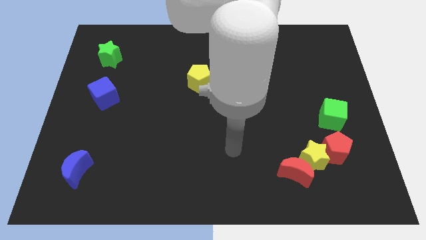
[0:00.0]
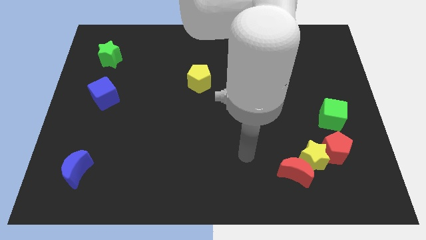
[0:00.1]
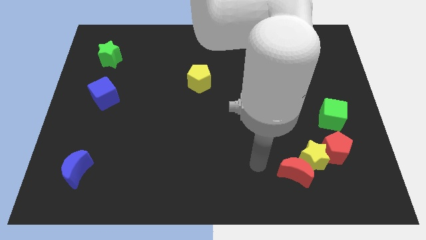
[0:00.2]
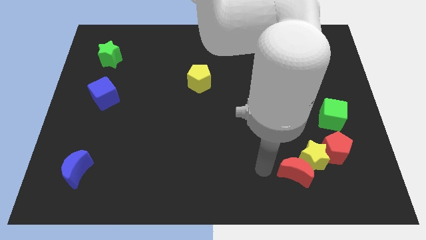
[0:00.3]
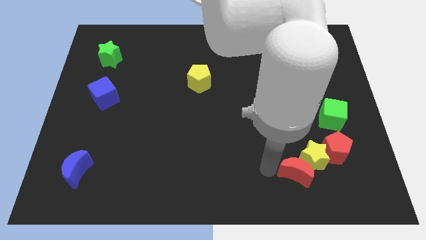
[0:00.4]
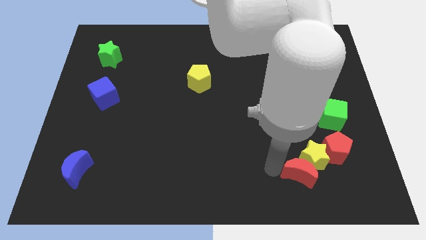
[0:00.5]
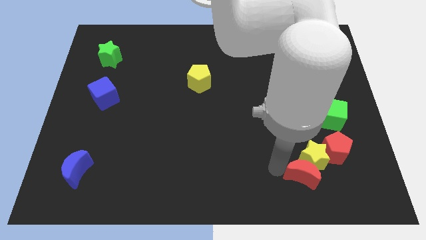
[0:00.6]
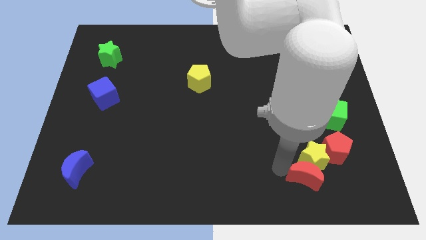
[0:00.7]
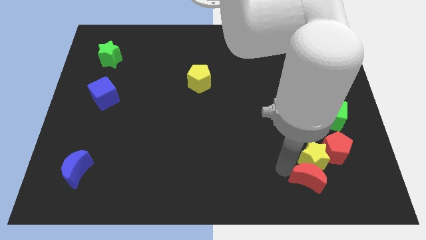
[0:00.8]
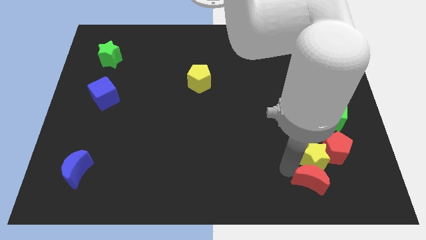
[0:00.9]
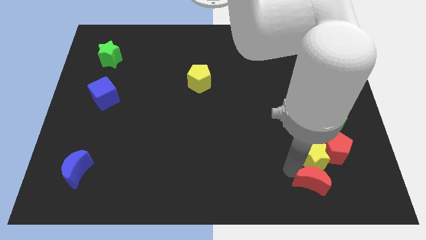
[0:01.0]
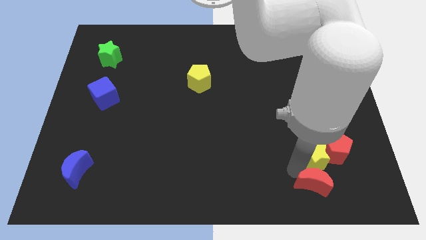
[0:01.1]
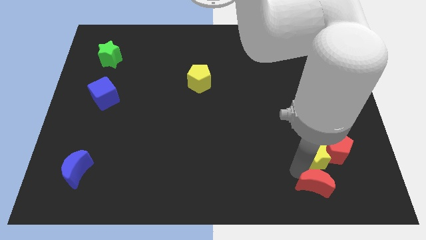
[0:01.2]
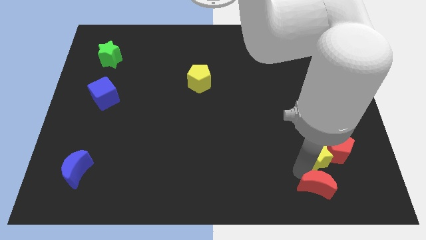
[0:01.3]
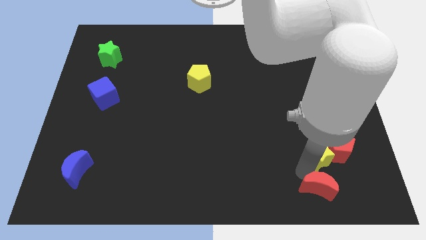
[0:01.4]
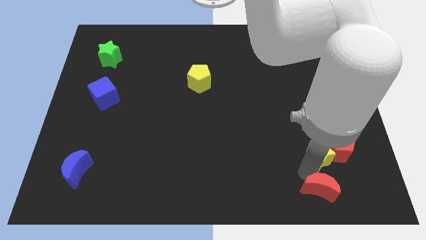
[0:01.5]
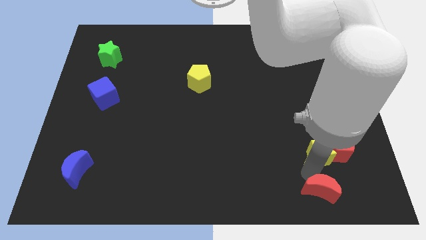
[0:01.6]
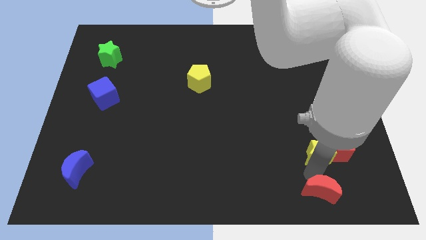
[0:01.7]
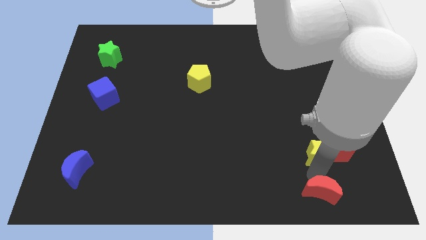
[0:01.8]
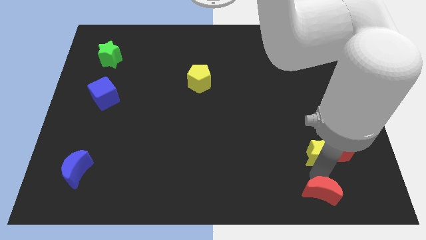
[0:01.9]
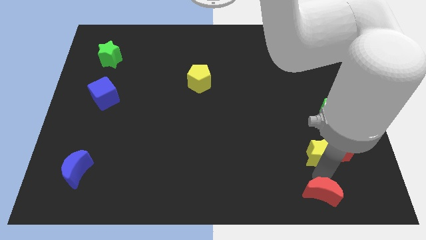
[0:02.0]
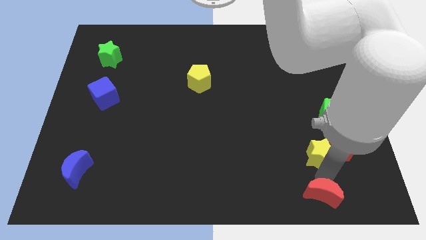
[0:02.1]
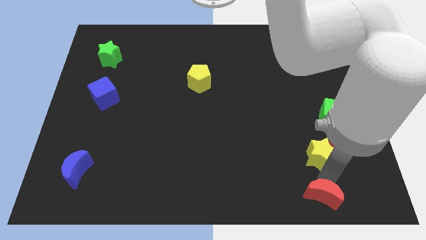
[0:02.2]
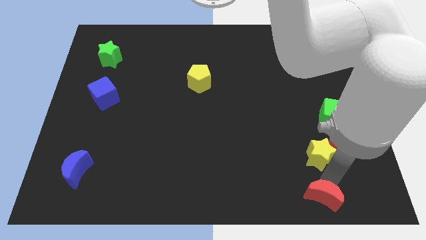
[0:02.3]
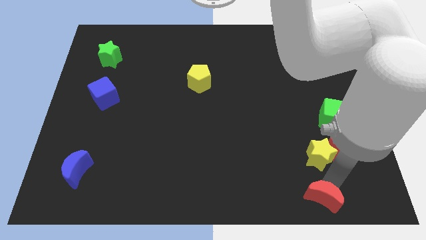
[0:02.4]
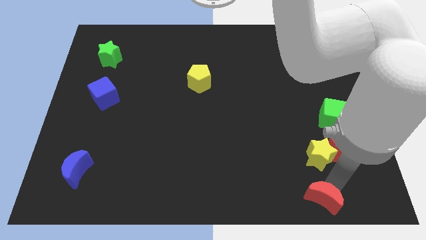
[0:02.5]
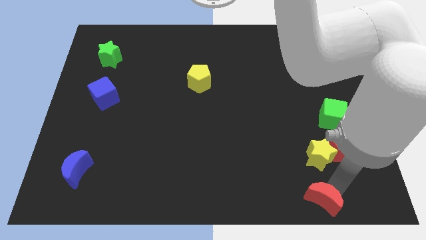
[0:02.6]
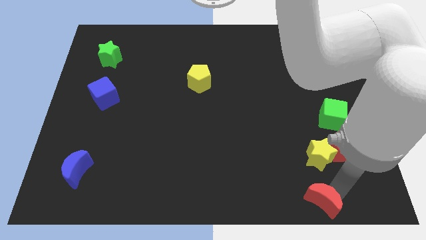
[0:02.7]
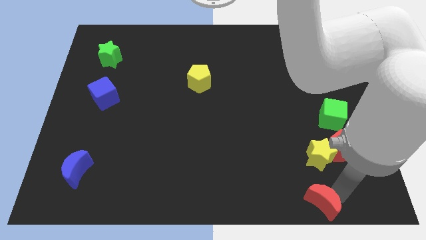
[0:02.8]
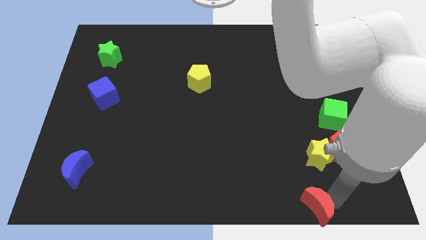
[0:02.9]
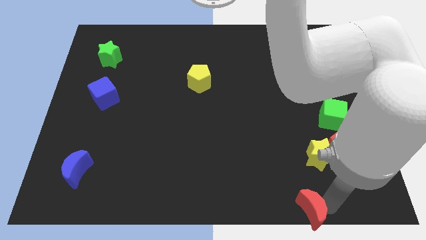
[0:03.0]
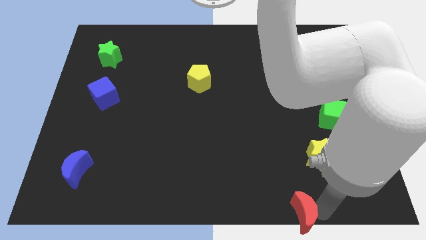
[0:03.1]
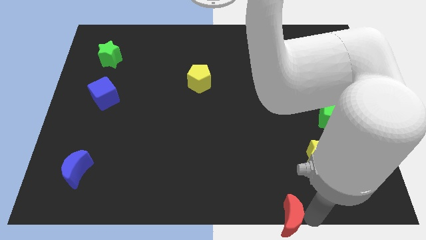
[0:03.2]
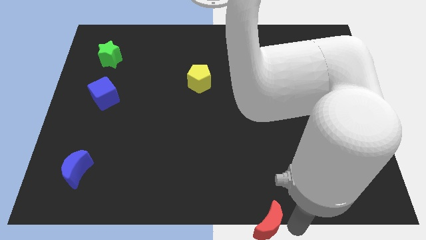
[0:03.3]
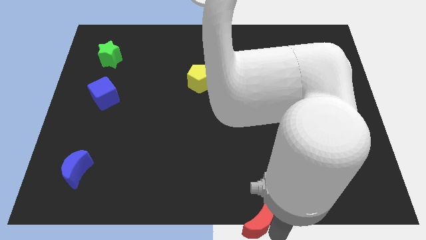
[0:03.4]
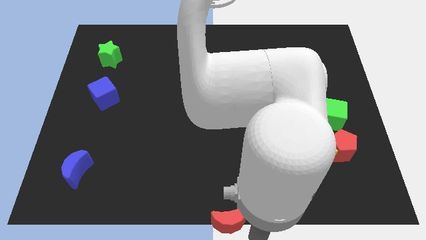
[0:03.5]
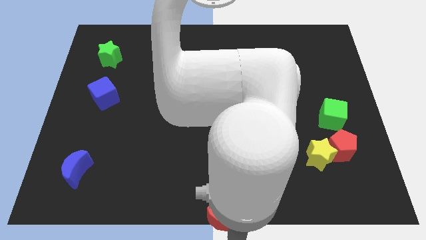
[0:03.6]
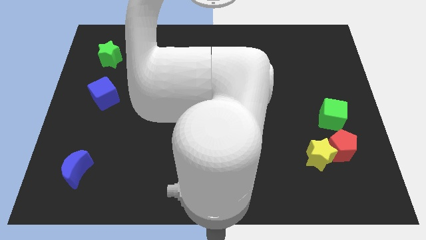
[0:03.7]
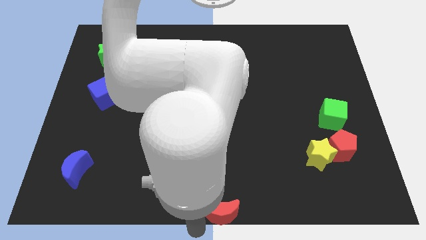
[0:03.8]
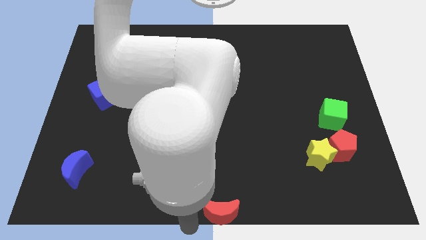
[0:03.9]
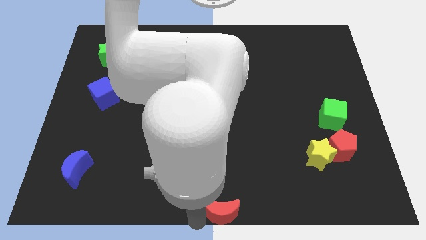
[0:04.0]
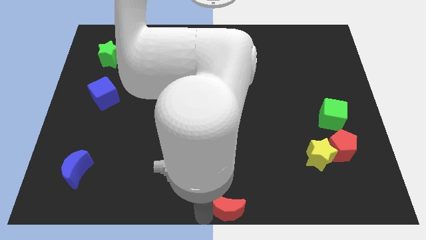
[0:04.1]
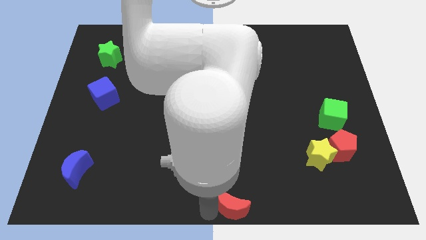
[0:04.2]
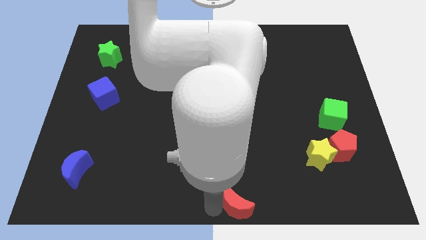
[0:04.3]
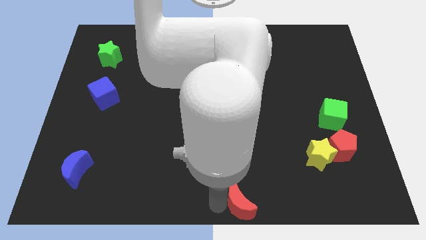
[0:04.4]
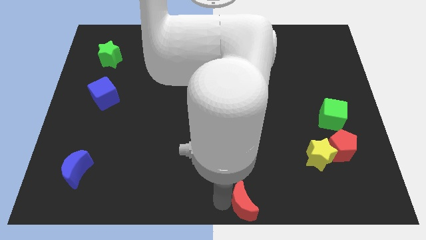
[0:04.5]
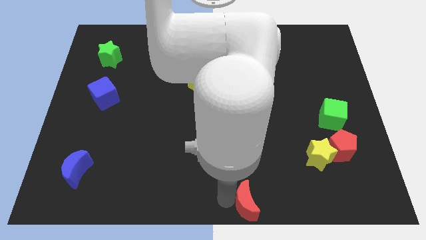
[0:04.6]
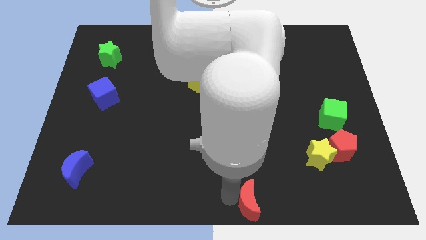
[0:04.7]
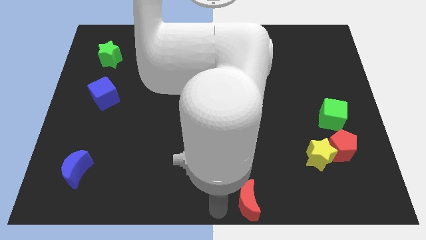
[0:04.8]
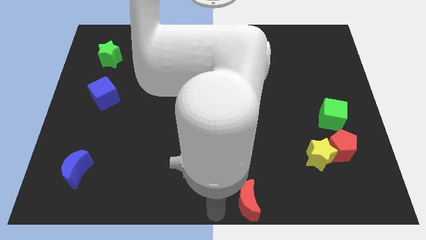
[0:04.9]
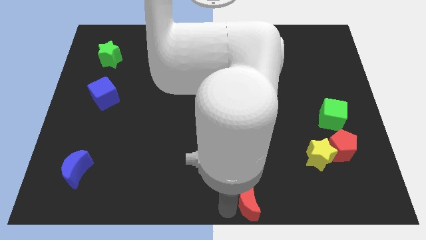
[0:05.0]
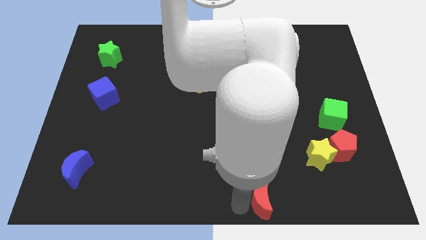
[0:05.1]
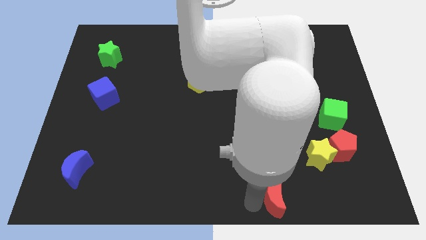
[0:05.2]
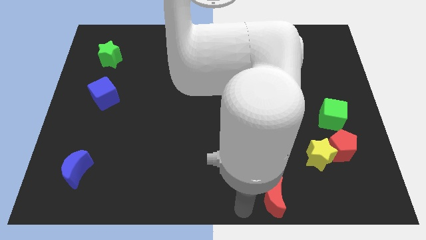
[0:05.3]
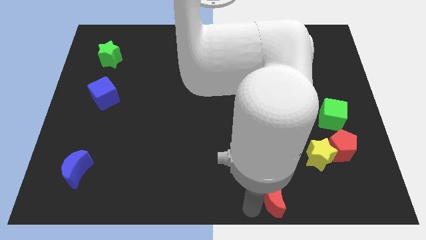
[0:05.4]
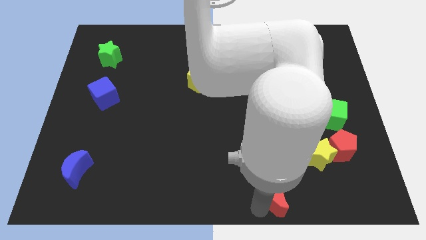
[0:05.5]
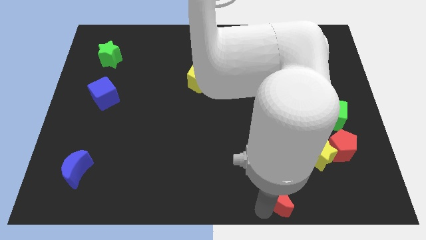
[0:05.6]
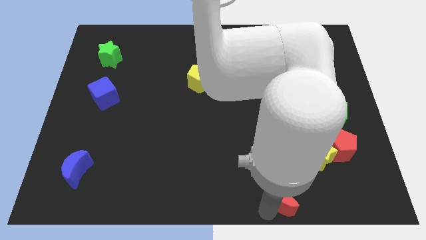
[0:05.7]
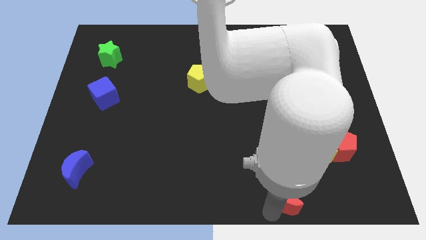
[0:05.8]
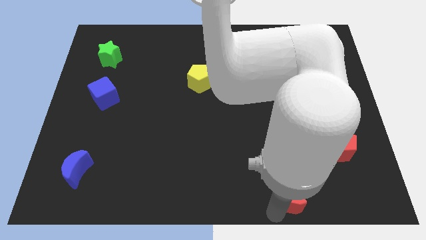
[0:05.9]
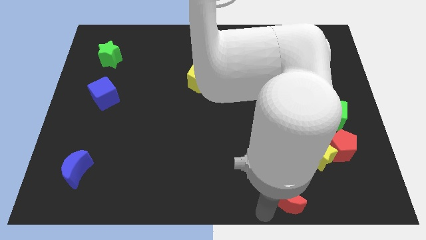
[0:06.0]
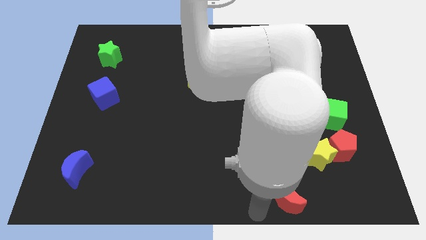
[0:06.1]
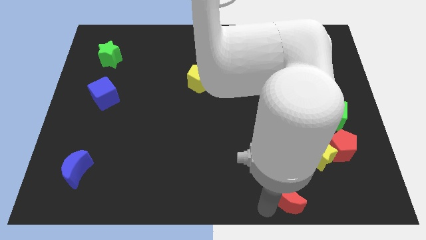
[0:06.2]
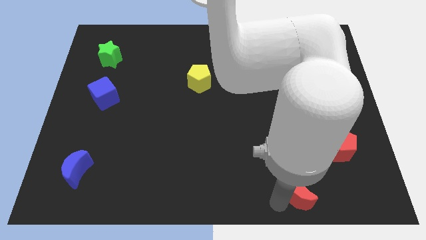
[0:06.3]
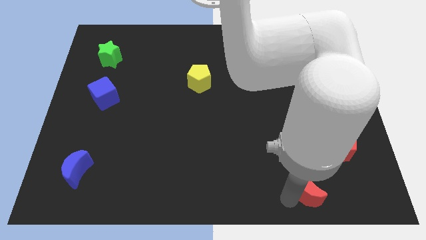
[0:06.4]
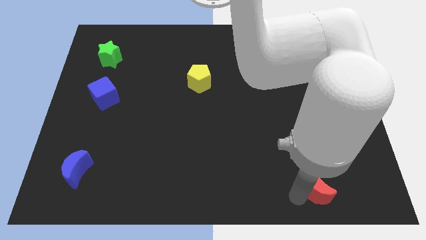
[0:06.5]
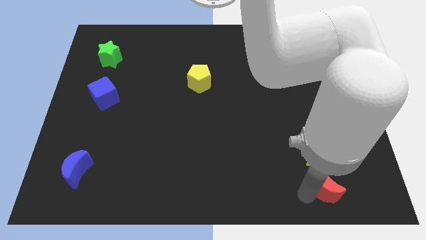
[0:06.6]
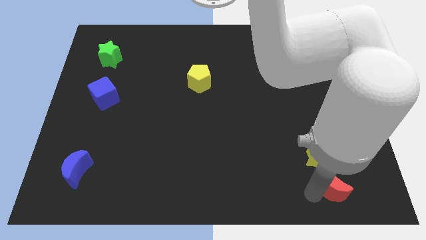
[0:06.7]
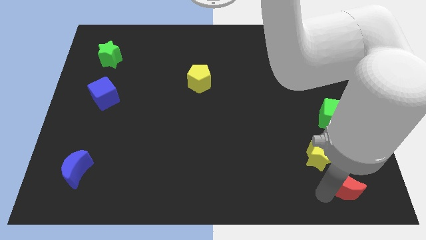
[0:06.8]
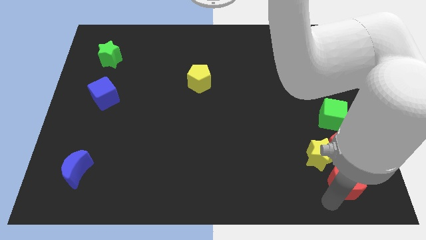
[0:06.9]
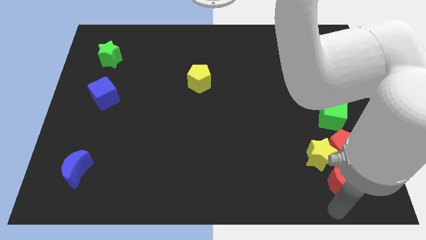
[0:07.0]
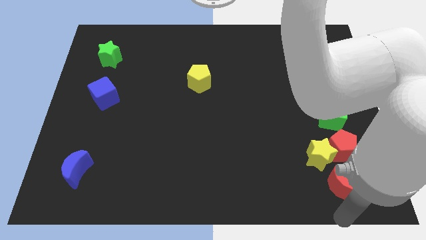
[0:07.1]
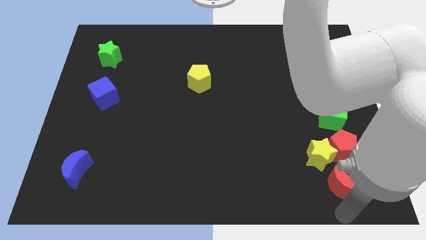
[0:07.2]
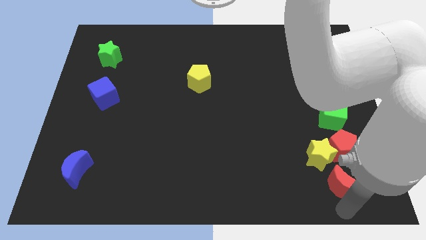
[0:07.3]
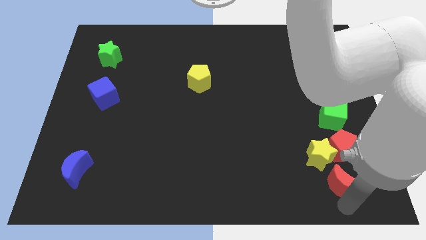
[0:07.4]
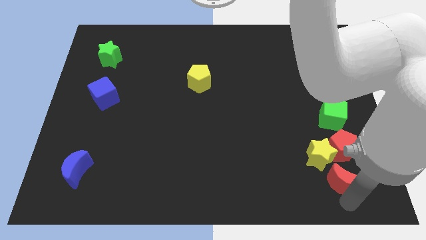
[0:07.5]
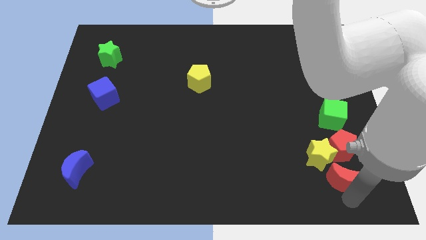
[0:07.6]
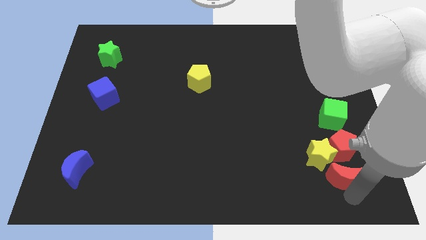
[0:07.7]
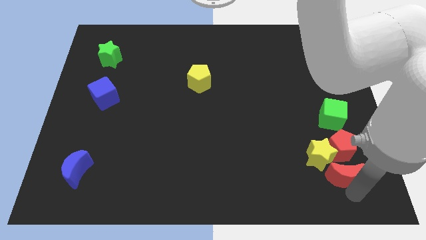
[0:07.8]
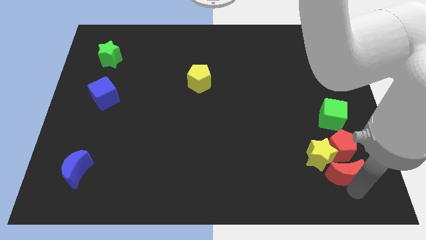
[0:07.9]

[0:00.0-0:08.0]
put the red moon towards the red pentagon
